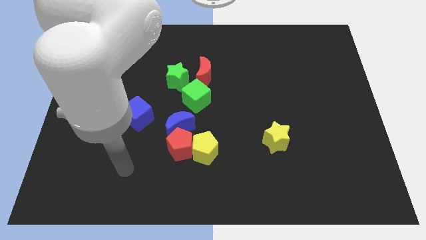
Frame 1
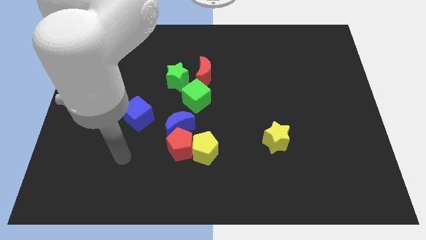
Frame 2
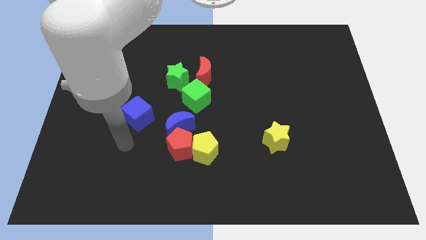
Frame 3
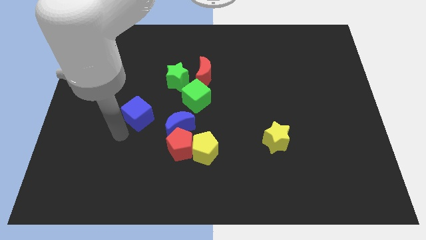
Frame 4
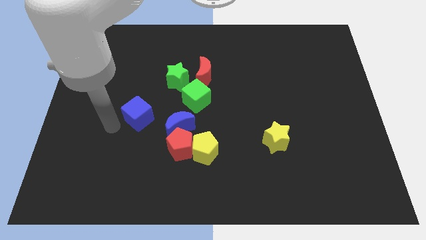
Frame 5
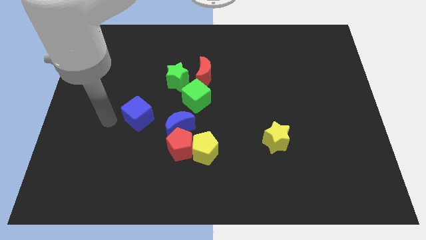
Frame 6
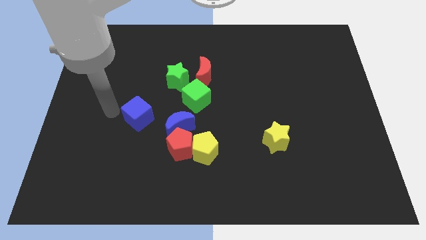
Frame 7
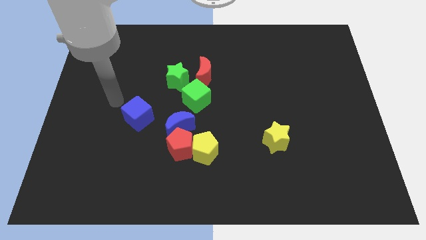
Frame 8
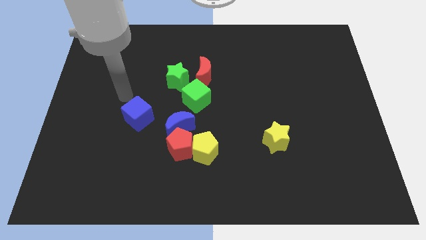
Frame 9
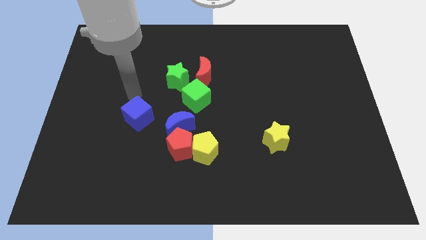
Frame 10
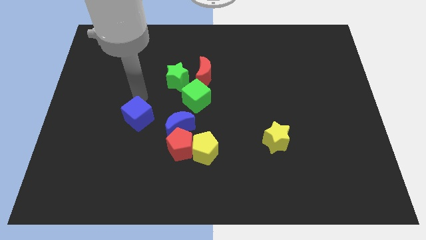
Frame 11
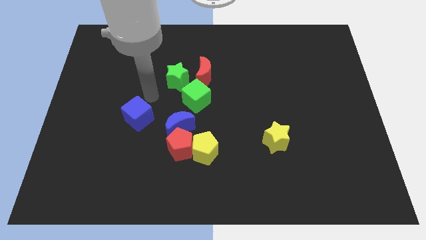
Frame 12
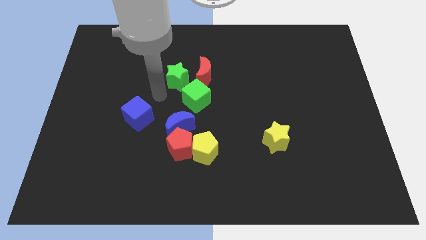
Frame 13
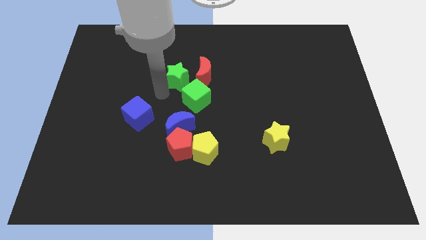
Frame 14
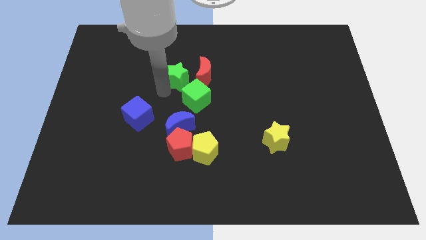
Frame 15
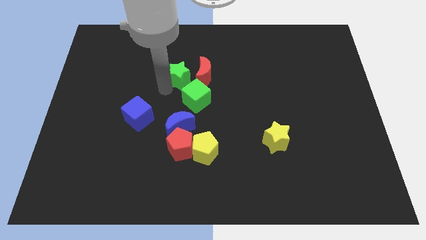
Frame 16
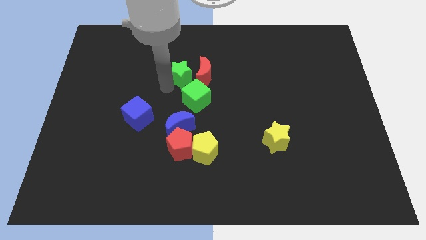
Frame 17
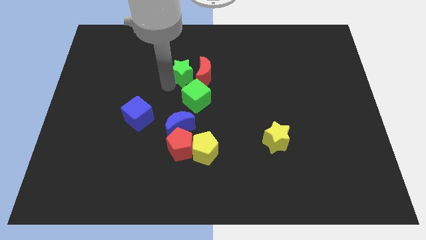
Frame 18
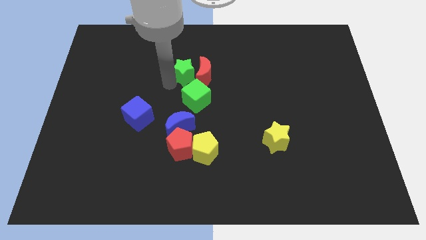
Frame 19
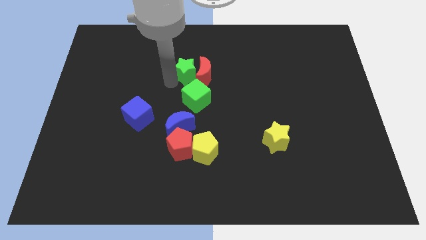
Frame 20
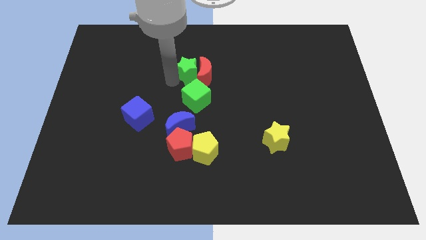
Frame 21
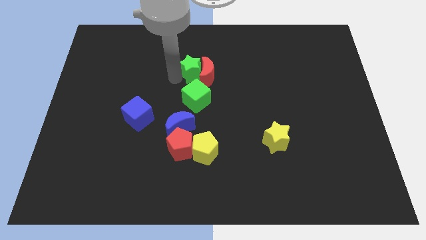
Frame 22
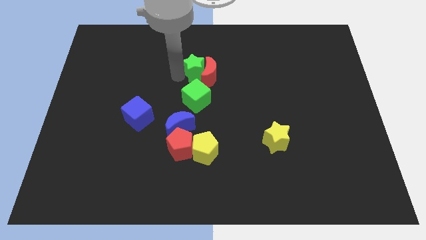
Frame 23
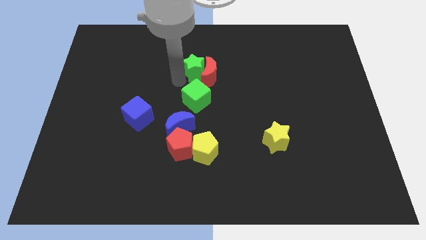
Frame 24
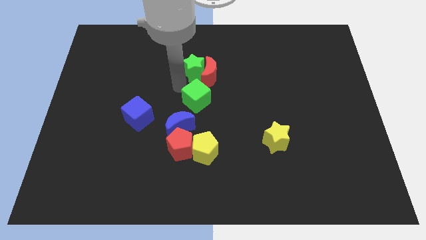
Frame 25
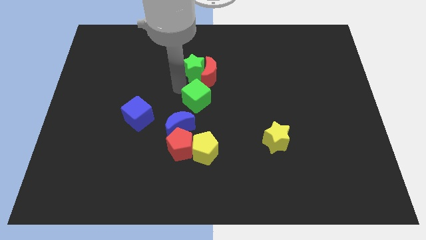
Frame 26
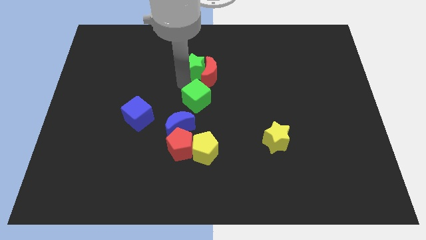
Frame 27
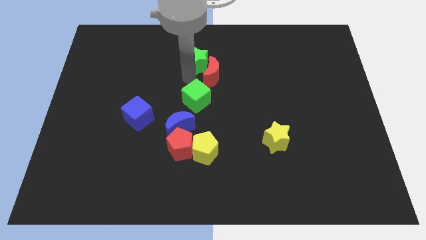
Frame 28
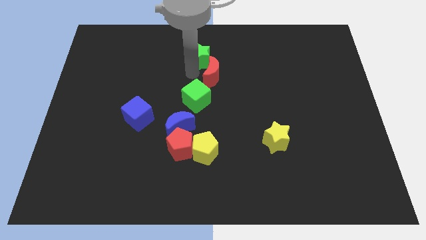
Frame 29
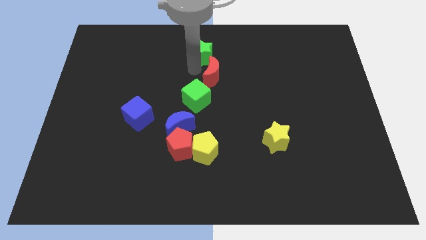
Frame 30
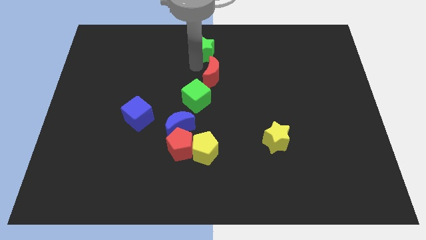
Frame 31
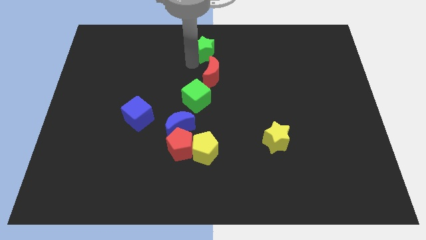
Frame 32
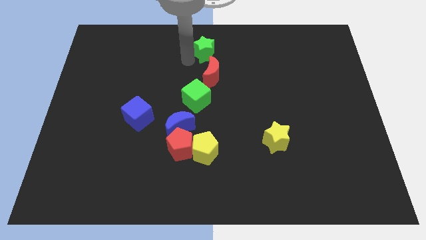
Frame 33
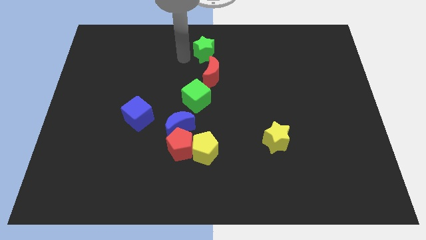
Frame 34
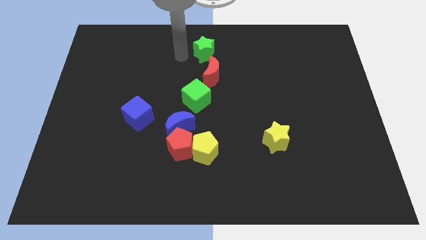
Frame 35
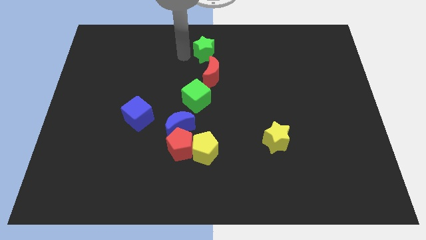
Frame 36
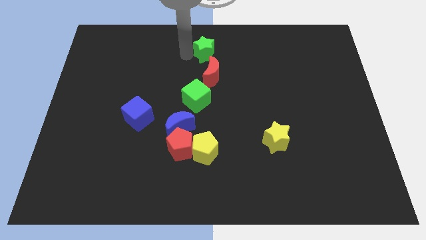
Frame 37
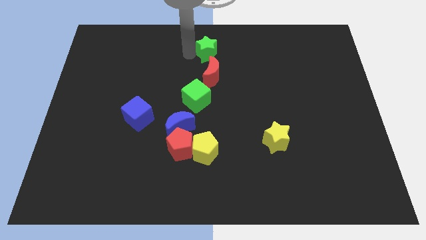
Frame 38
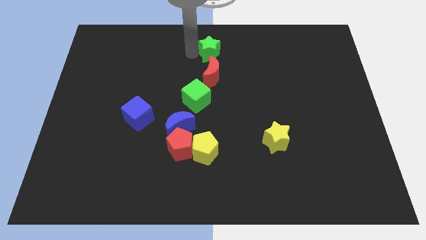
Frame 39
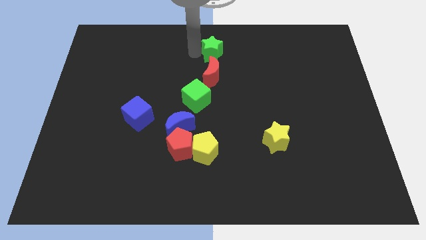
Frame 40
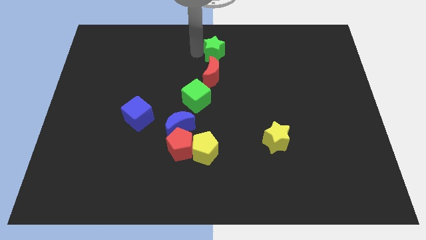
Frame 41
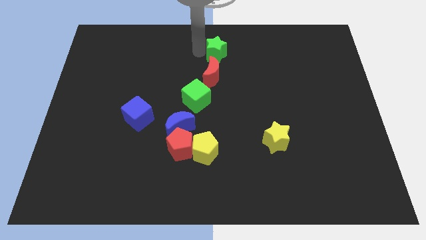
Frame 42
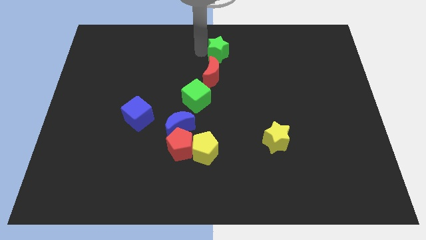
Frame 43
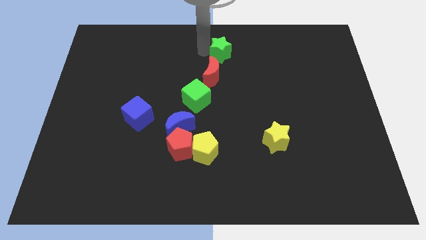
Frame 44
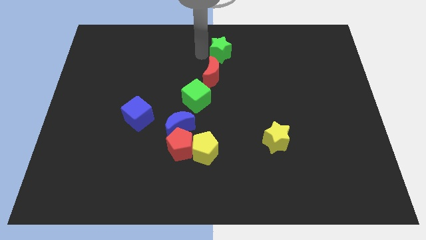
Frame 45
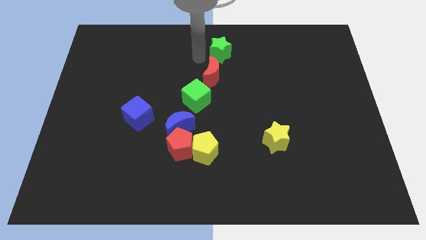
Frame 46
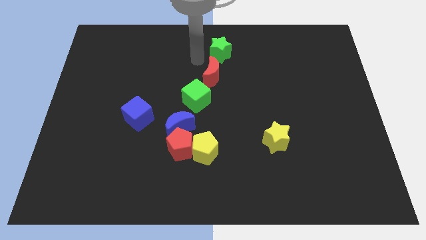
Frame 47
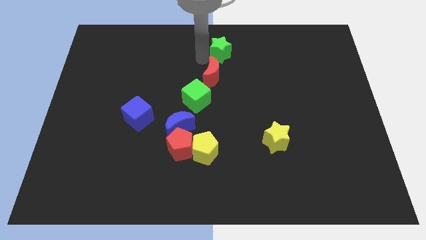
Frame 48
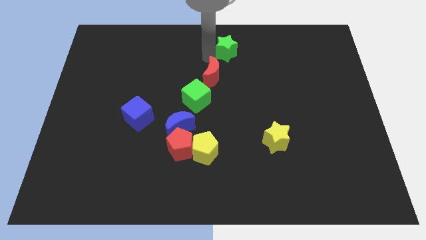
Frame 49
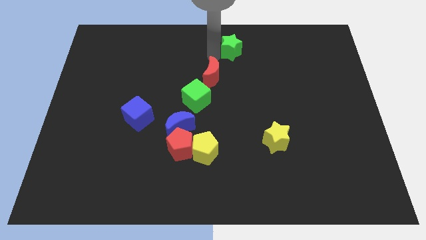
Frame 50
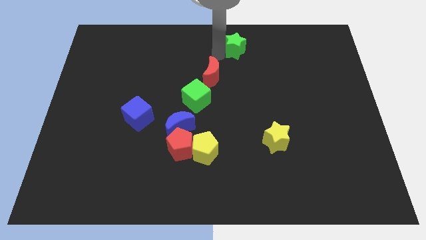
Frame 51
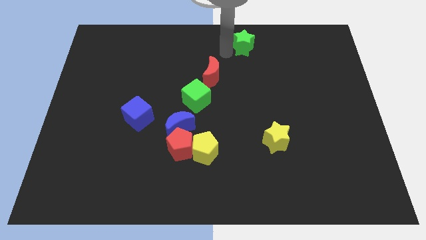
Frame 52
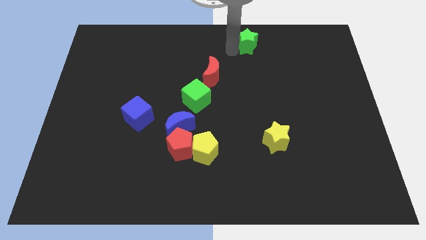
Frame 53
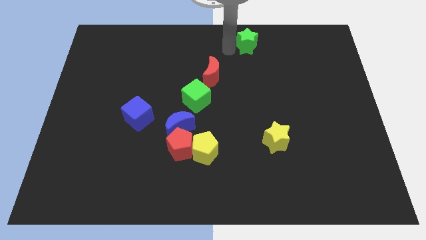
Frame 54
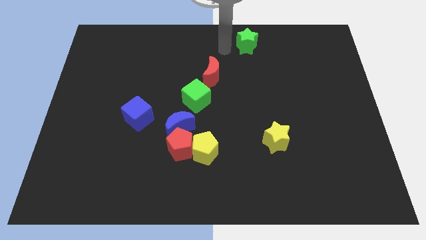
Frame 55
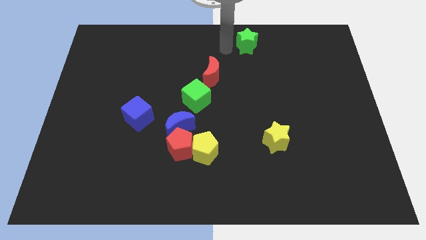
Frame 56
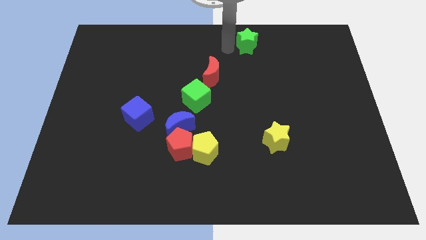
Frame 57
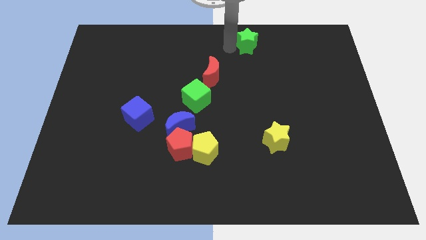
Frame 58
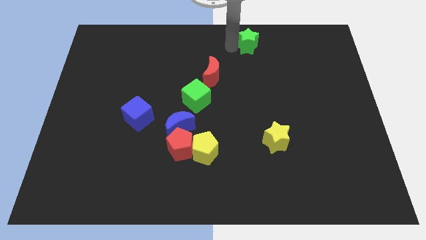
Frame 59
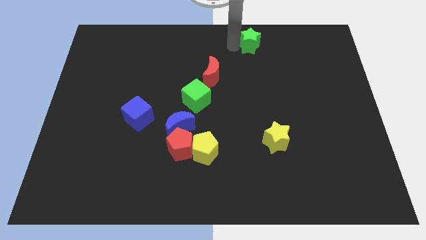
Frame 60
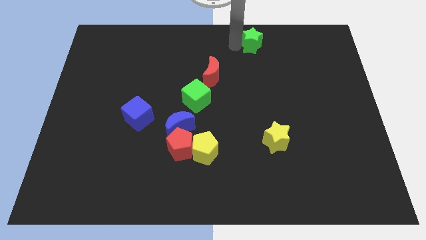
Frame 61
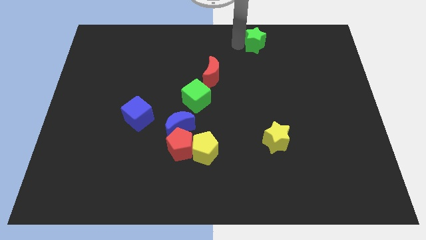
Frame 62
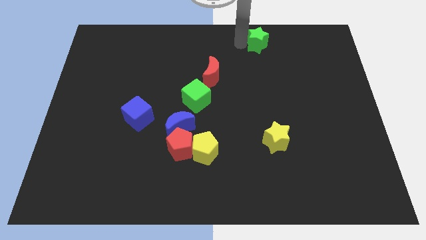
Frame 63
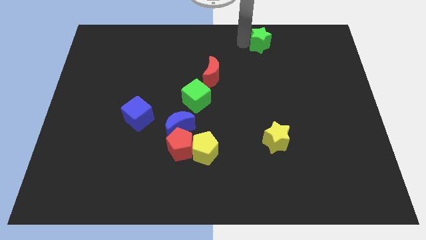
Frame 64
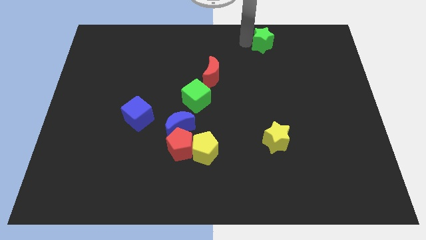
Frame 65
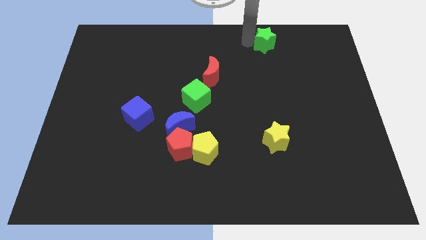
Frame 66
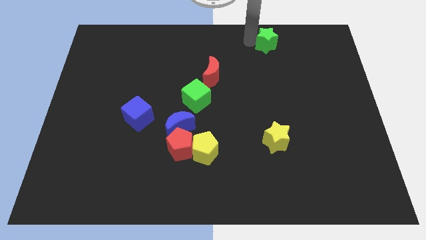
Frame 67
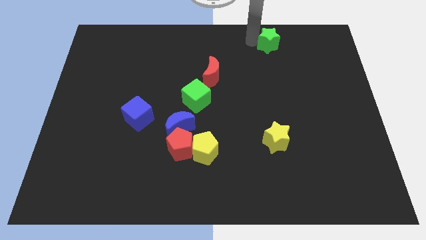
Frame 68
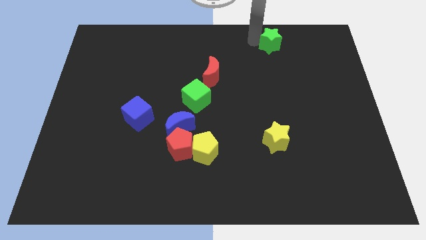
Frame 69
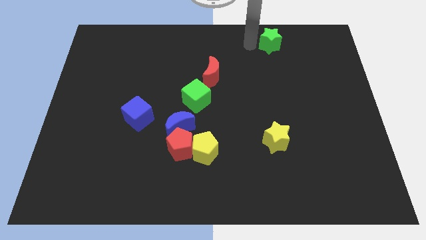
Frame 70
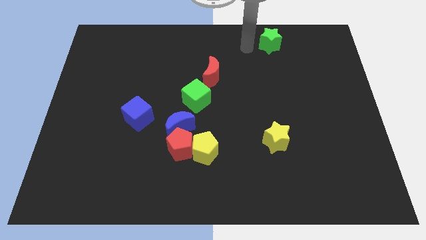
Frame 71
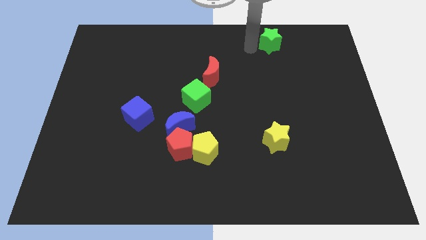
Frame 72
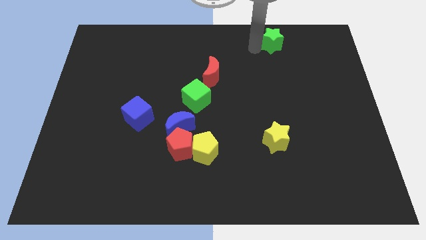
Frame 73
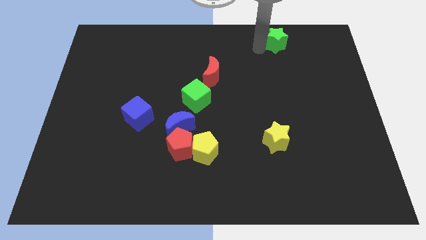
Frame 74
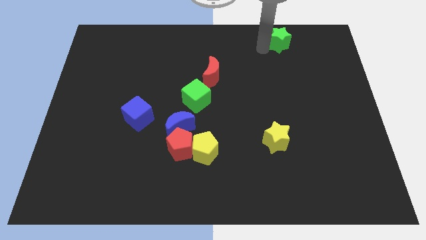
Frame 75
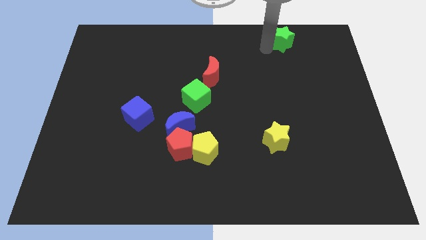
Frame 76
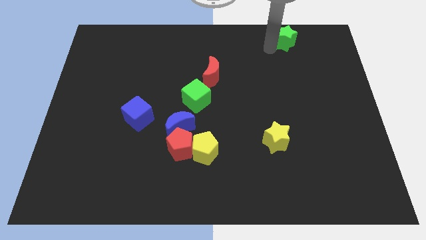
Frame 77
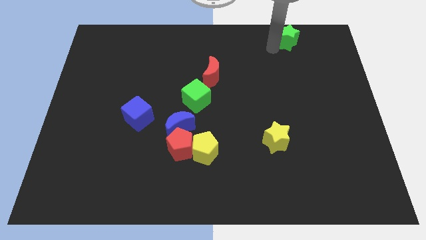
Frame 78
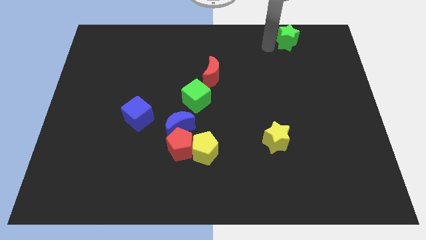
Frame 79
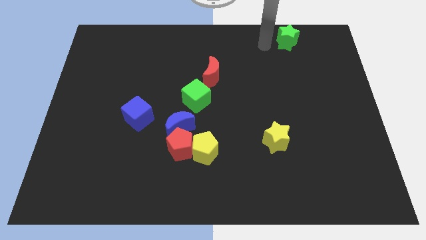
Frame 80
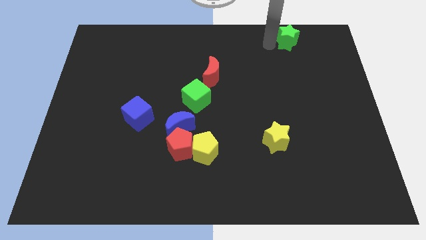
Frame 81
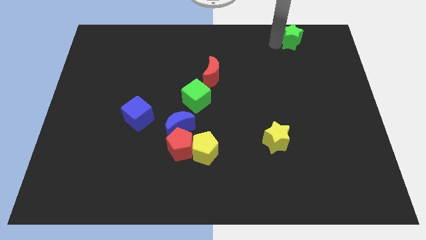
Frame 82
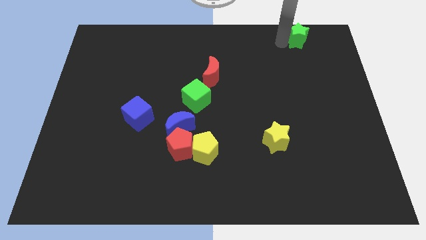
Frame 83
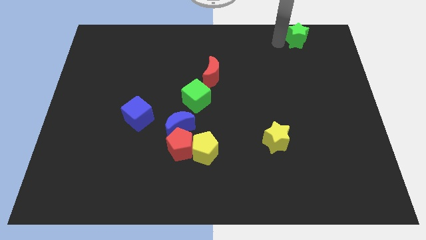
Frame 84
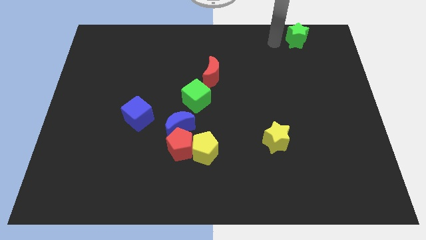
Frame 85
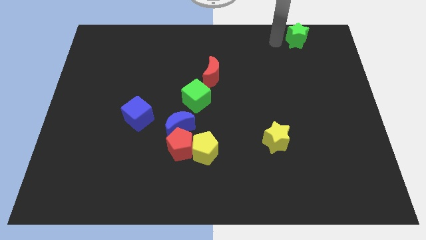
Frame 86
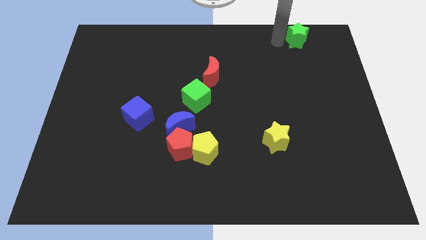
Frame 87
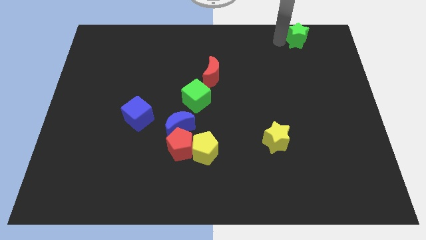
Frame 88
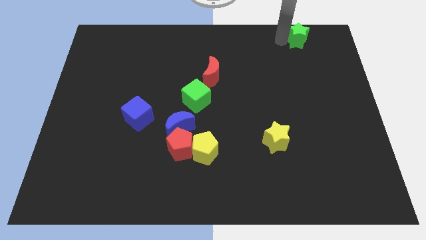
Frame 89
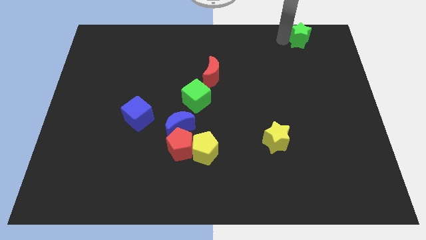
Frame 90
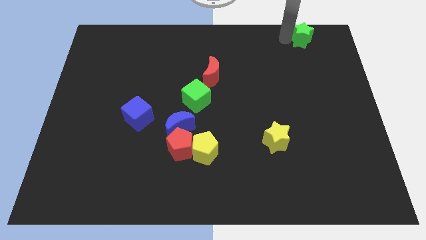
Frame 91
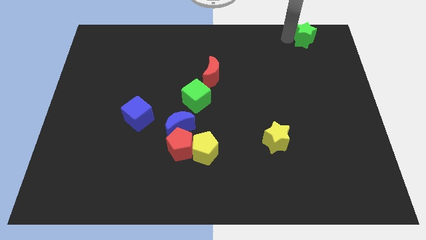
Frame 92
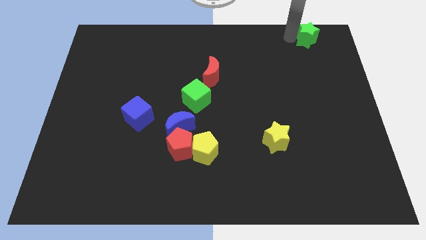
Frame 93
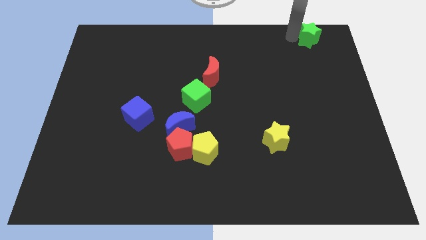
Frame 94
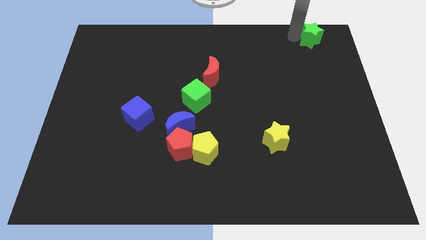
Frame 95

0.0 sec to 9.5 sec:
move the green star to the top right corner
